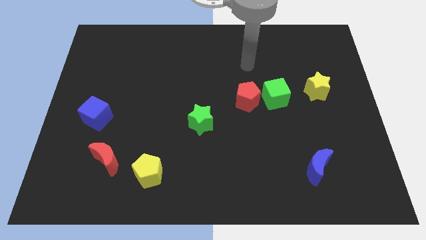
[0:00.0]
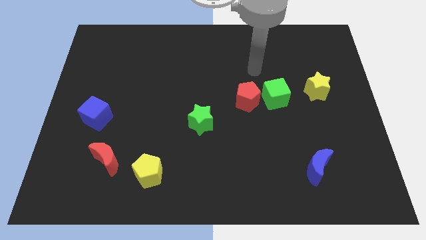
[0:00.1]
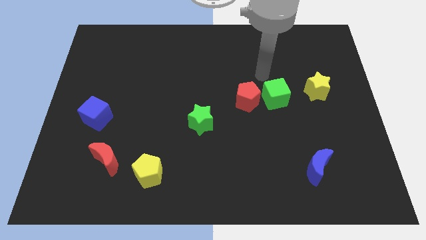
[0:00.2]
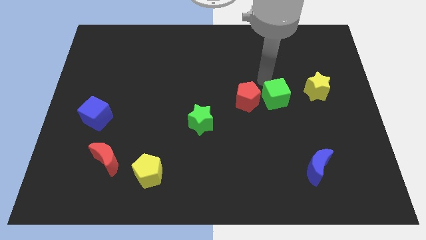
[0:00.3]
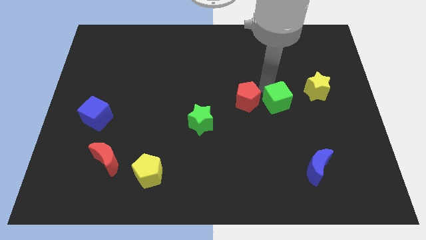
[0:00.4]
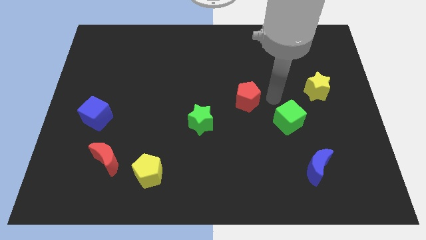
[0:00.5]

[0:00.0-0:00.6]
pull the red pentagon apart from the green cube

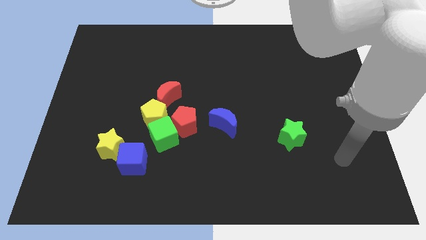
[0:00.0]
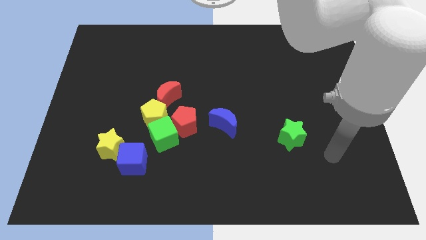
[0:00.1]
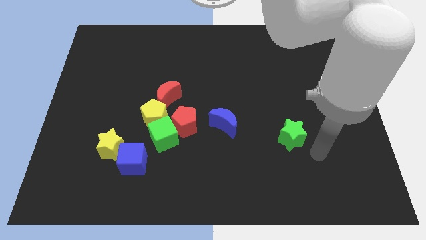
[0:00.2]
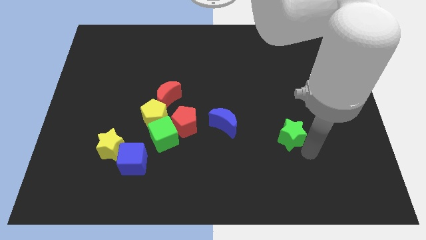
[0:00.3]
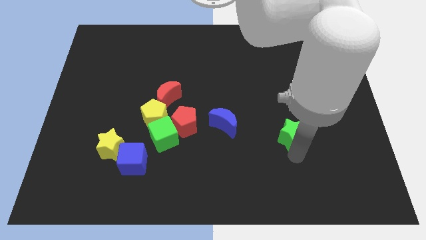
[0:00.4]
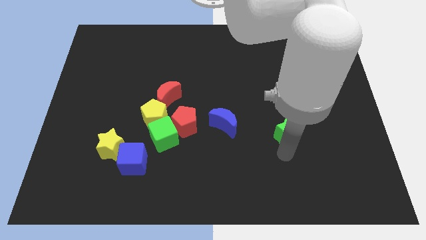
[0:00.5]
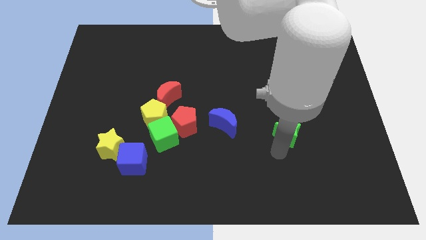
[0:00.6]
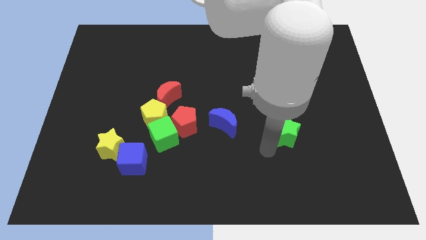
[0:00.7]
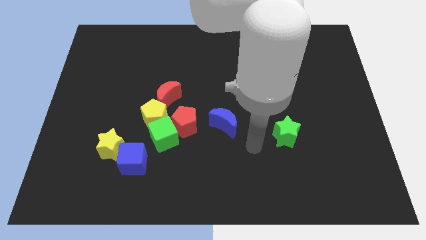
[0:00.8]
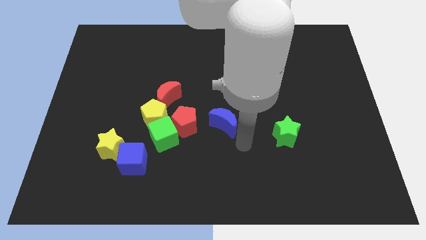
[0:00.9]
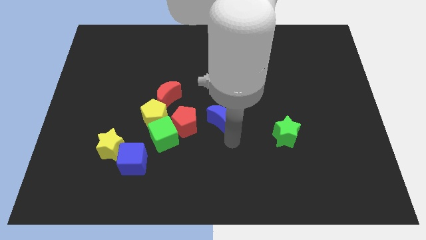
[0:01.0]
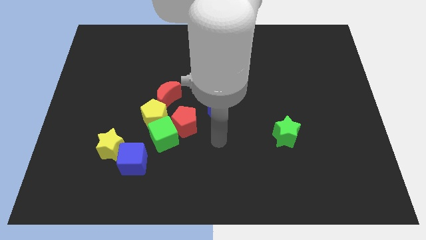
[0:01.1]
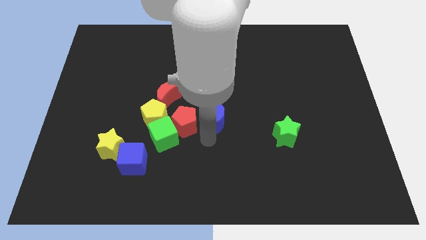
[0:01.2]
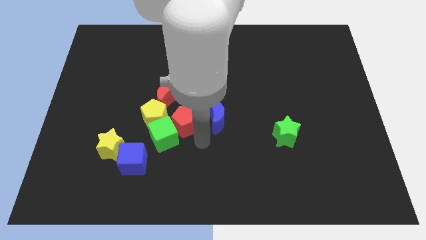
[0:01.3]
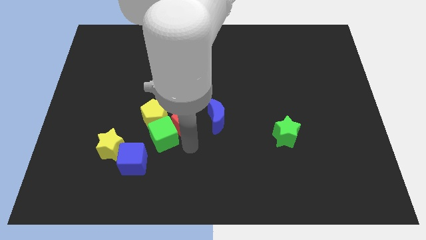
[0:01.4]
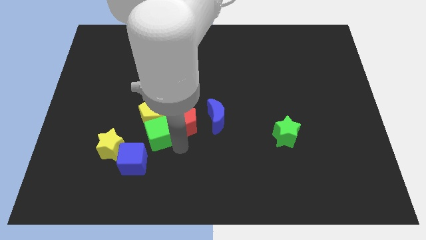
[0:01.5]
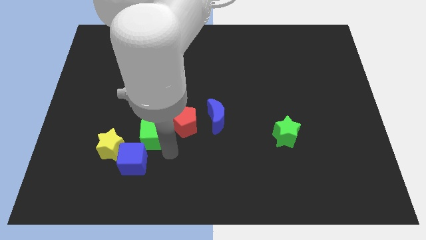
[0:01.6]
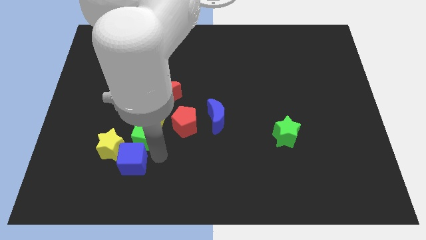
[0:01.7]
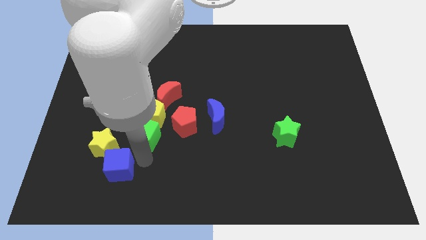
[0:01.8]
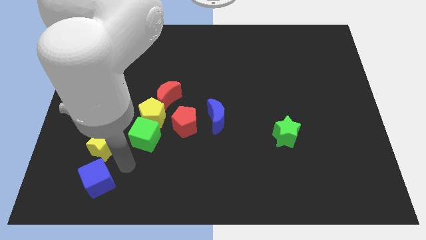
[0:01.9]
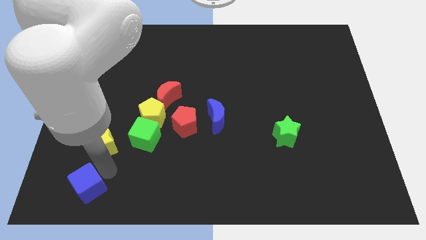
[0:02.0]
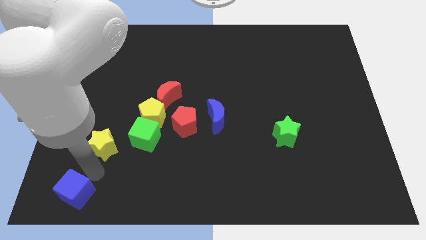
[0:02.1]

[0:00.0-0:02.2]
move the yellow star away from the blue cube

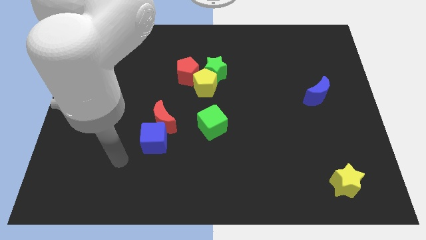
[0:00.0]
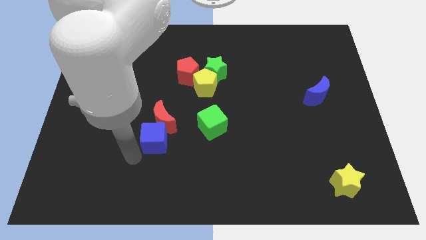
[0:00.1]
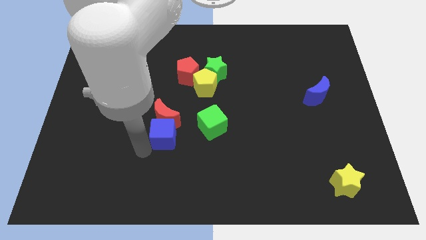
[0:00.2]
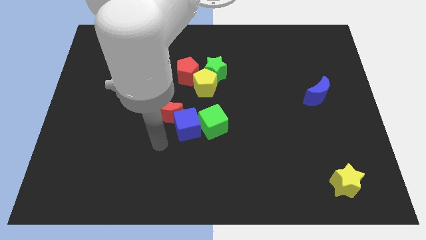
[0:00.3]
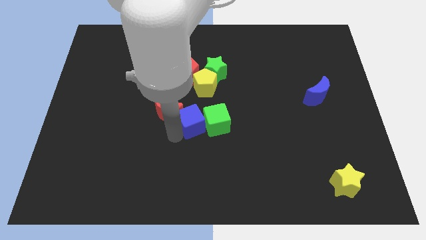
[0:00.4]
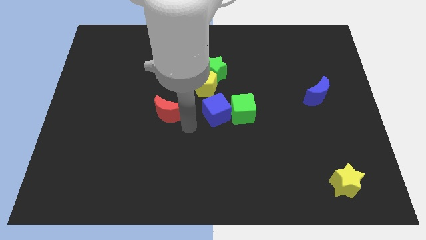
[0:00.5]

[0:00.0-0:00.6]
separate the red moon from the blue cube

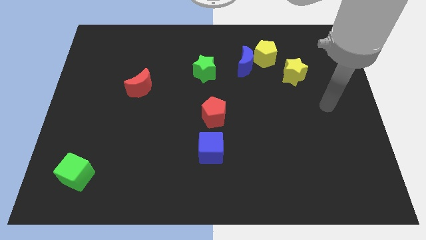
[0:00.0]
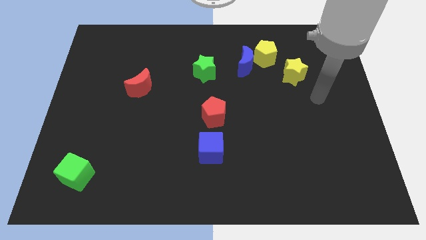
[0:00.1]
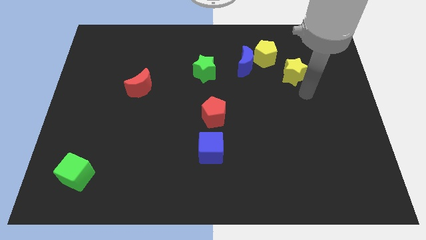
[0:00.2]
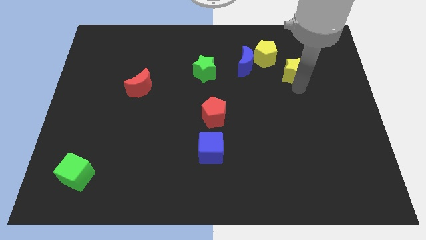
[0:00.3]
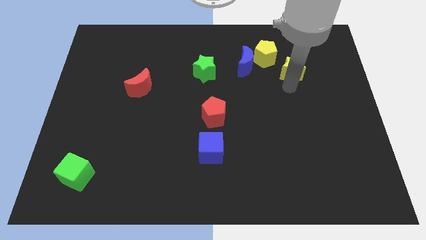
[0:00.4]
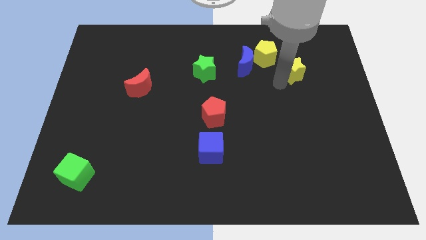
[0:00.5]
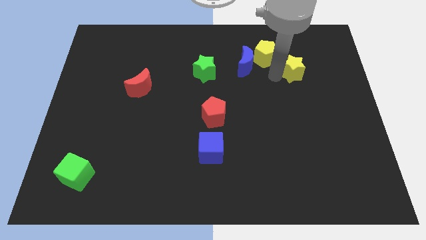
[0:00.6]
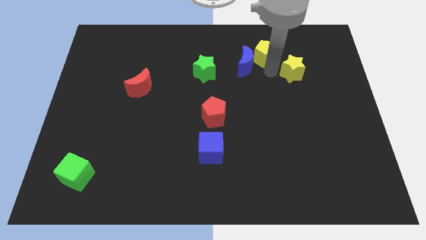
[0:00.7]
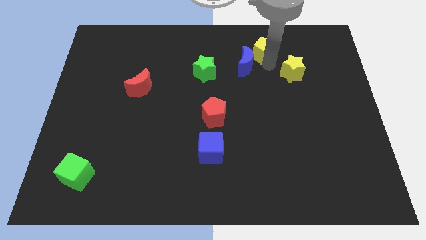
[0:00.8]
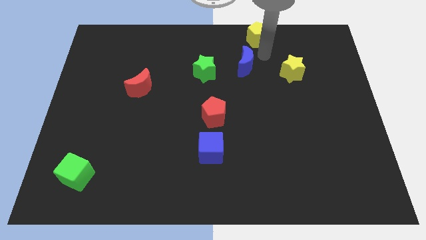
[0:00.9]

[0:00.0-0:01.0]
move the blue moon away from the yellow pentagon

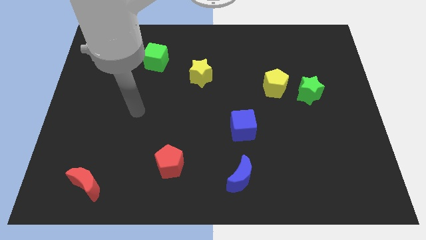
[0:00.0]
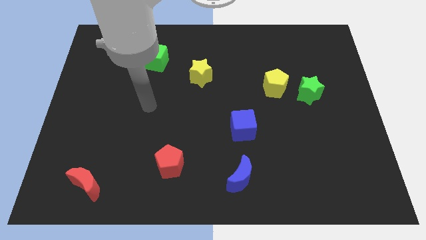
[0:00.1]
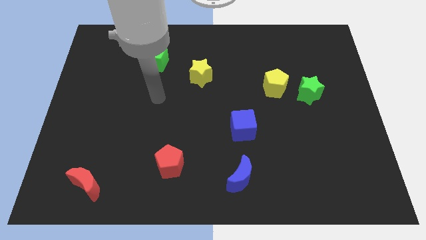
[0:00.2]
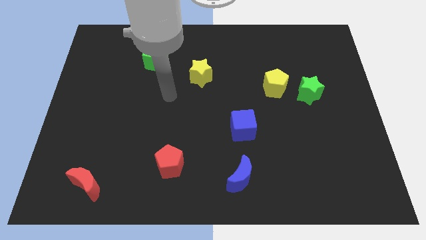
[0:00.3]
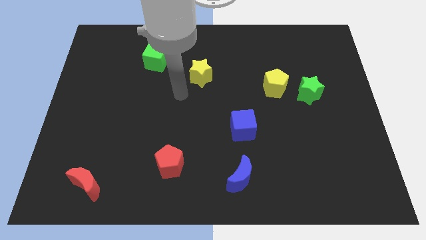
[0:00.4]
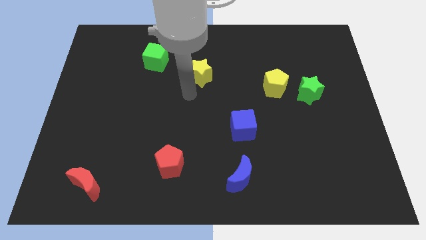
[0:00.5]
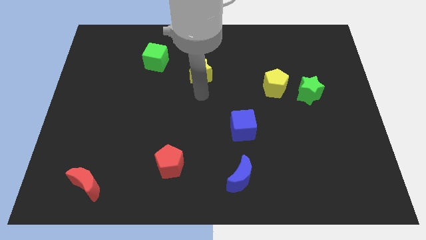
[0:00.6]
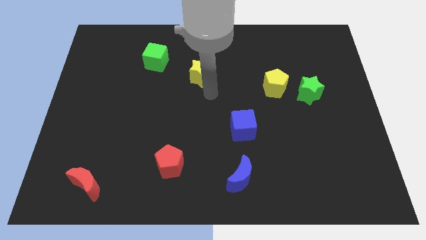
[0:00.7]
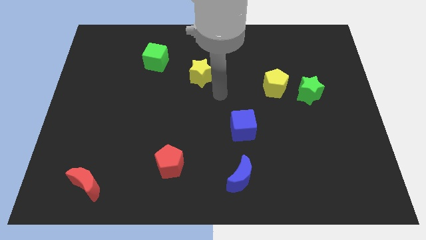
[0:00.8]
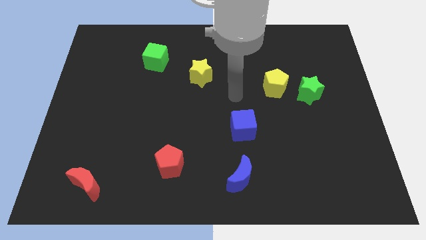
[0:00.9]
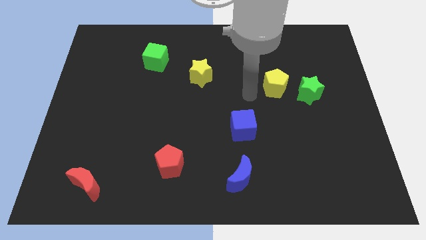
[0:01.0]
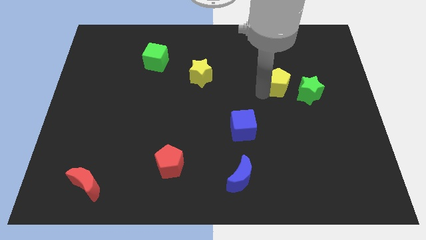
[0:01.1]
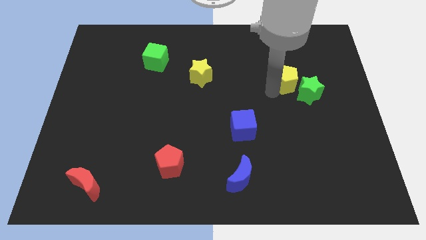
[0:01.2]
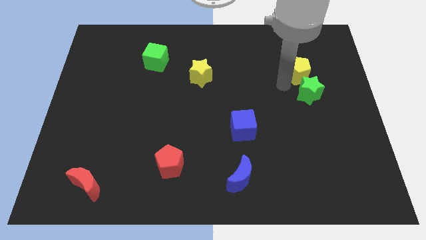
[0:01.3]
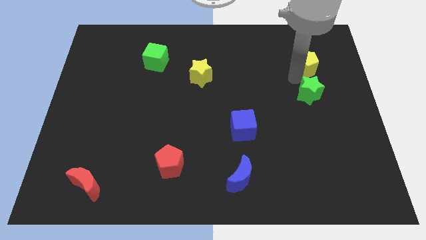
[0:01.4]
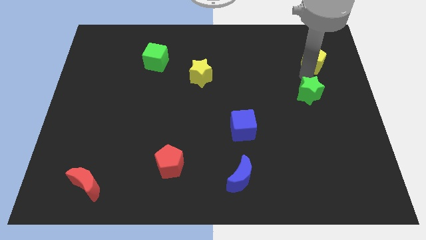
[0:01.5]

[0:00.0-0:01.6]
move the green star away from the yellow pentagon

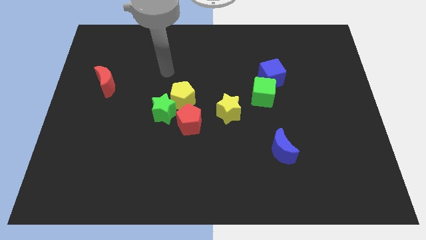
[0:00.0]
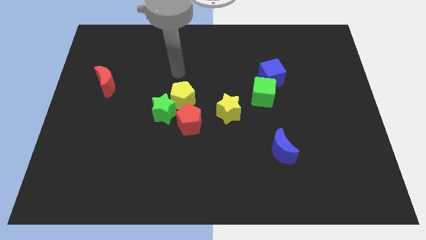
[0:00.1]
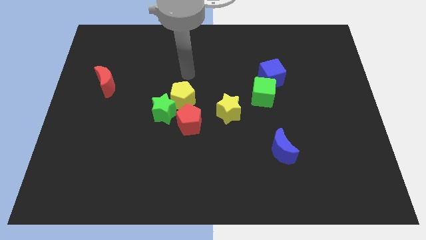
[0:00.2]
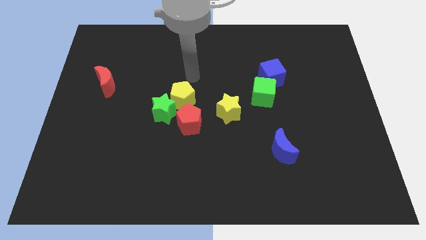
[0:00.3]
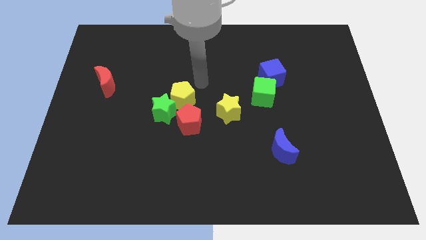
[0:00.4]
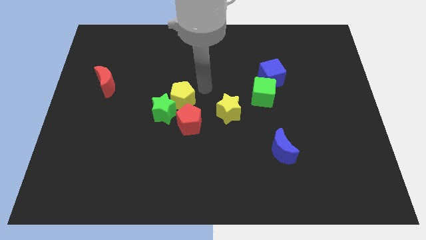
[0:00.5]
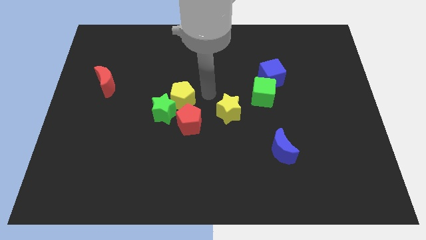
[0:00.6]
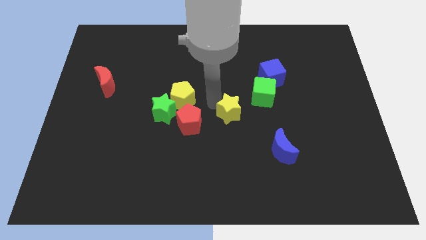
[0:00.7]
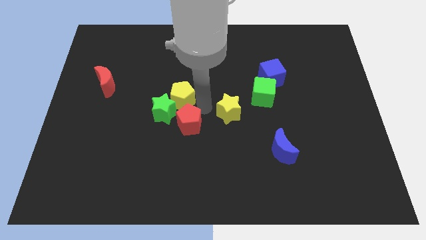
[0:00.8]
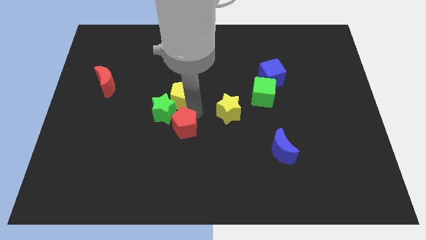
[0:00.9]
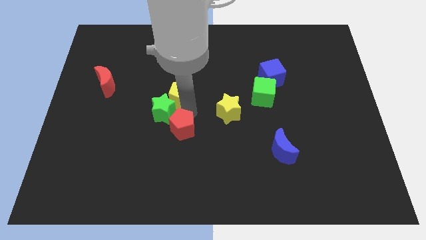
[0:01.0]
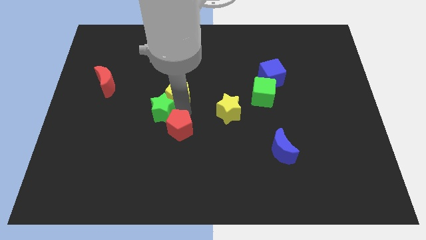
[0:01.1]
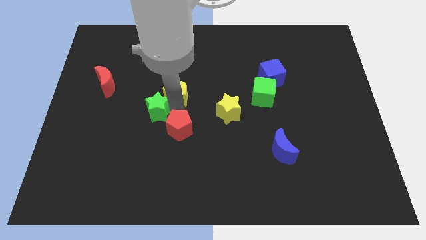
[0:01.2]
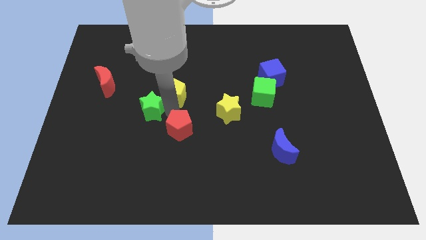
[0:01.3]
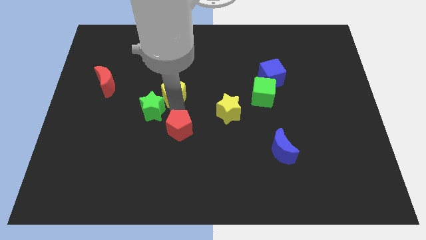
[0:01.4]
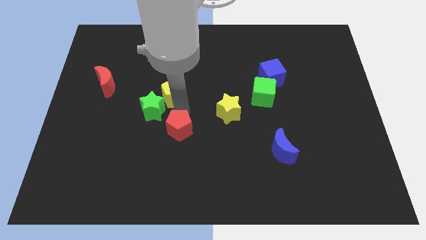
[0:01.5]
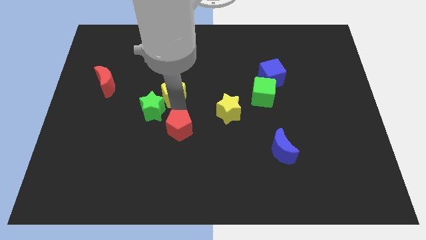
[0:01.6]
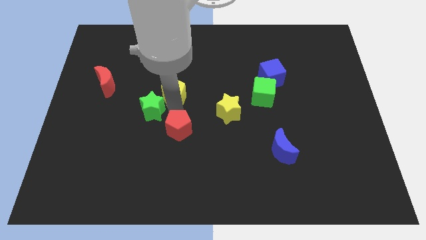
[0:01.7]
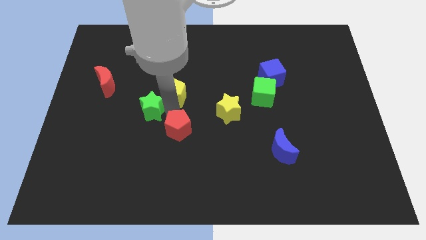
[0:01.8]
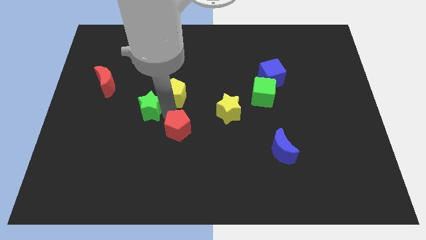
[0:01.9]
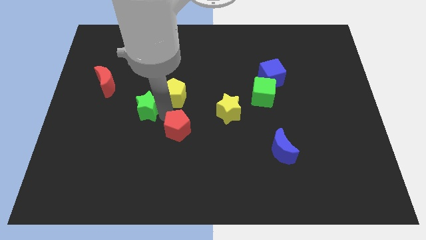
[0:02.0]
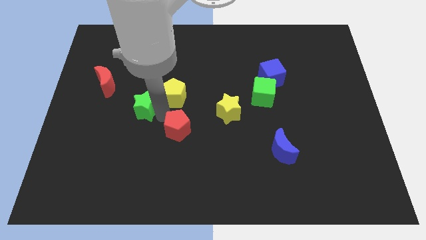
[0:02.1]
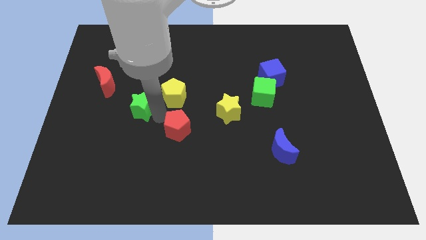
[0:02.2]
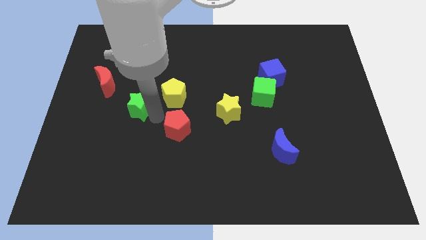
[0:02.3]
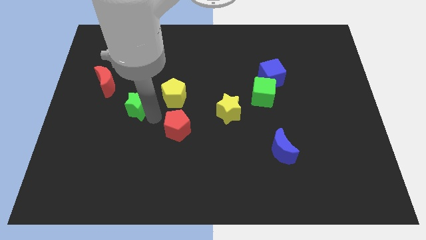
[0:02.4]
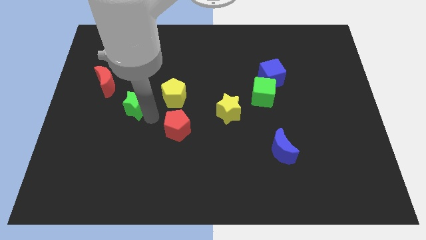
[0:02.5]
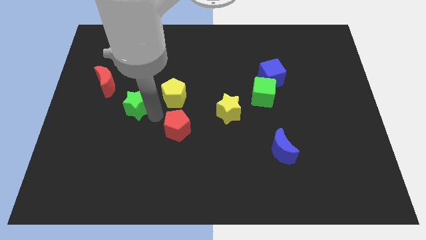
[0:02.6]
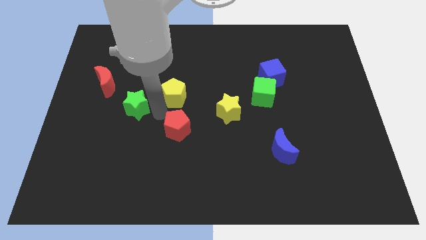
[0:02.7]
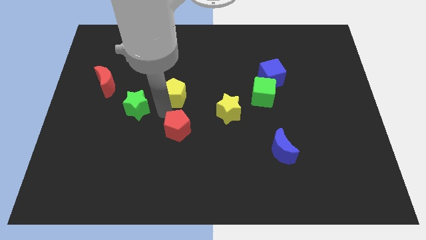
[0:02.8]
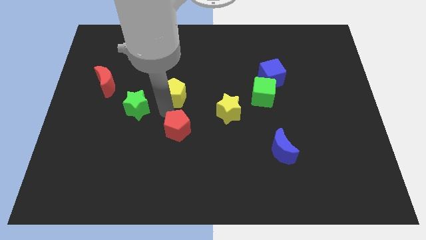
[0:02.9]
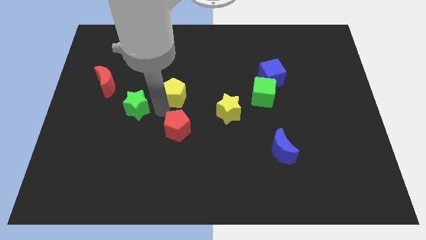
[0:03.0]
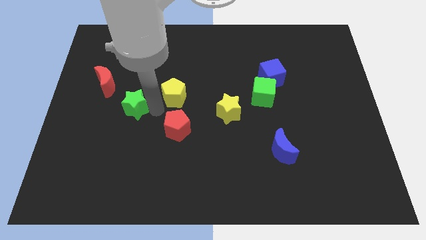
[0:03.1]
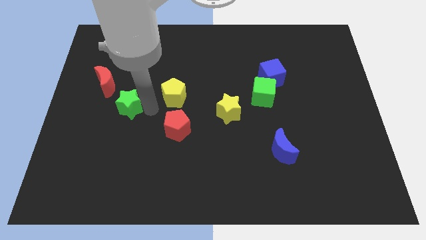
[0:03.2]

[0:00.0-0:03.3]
pull the green star apart from the yellow pentagon and red pentagon
